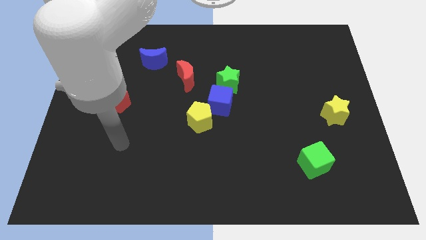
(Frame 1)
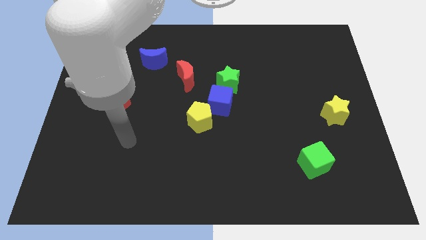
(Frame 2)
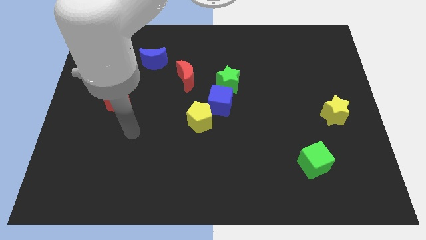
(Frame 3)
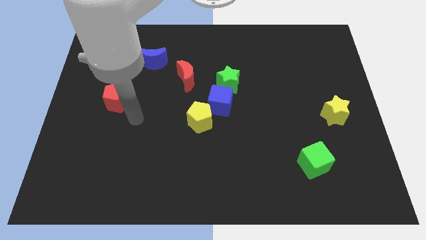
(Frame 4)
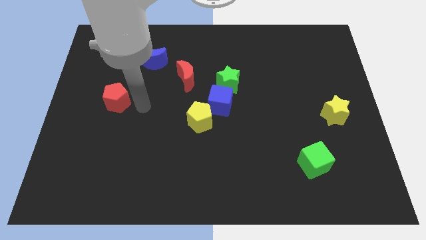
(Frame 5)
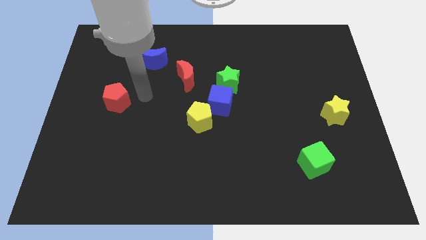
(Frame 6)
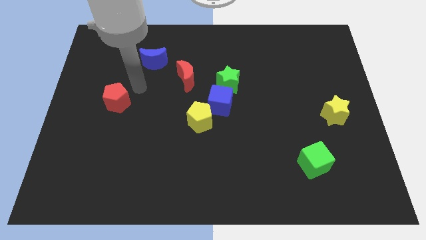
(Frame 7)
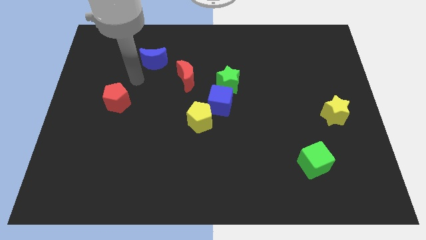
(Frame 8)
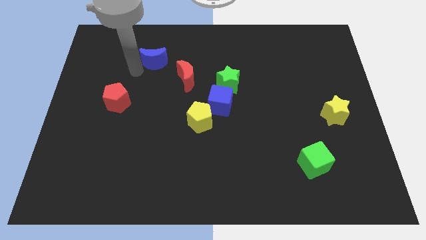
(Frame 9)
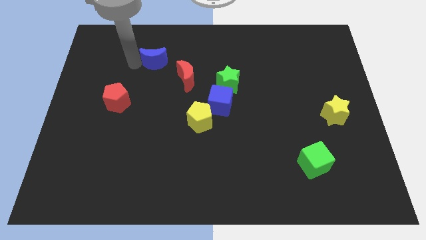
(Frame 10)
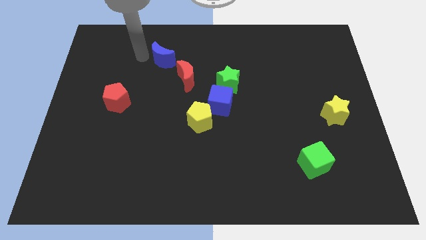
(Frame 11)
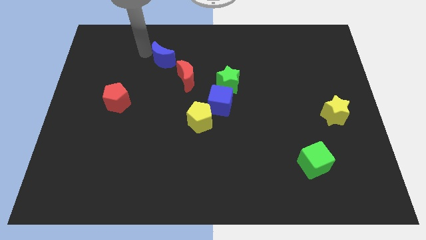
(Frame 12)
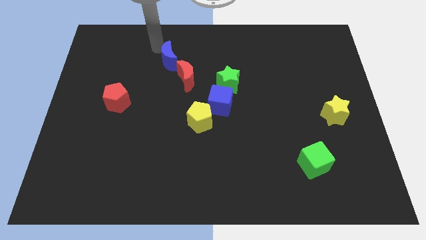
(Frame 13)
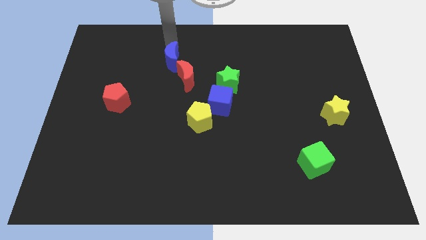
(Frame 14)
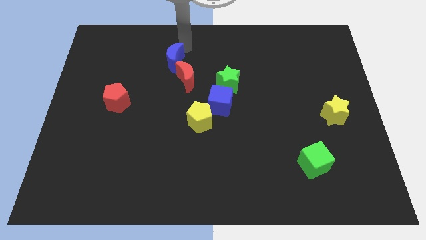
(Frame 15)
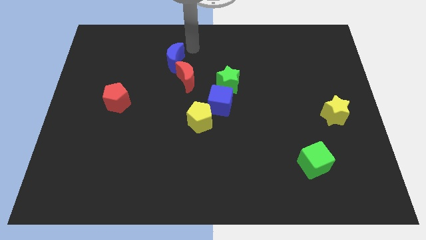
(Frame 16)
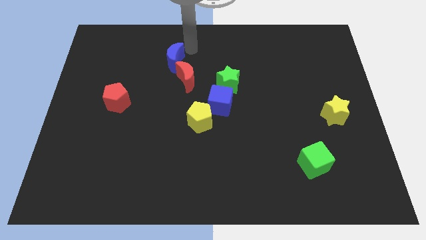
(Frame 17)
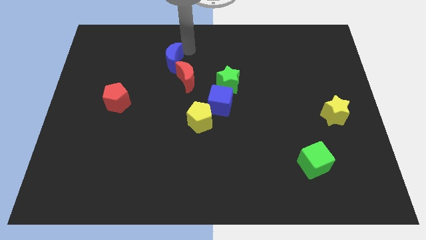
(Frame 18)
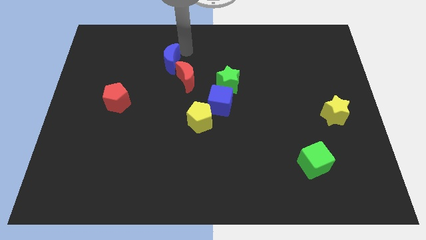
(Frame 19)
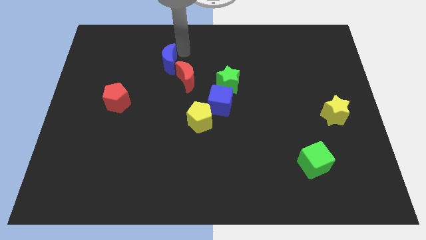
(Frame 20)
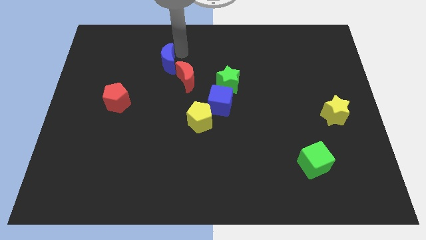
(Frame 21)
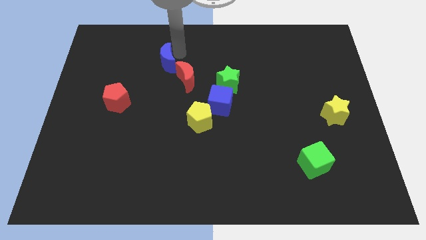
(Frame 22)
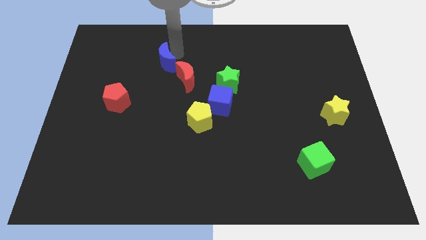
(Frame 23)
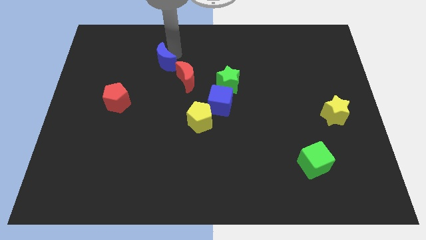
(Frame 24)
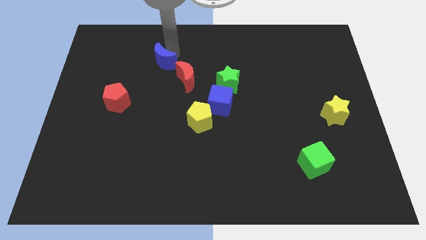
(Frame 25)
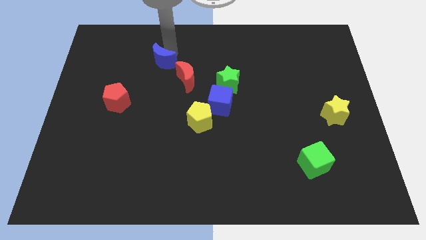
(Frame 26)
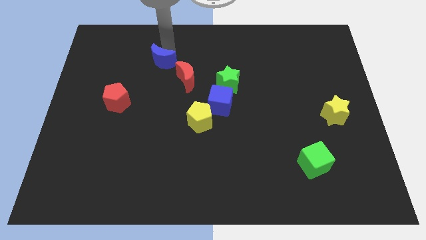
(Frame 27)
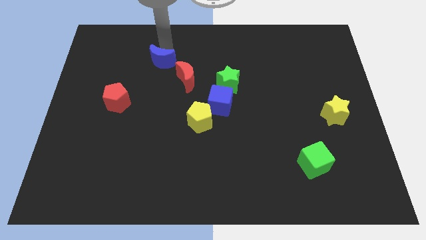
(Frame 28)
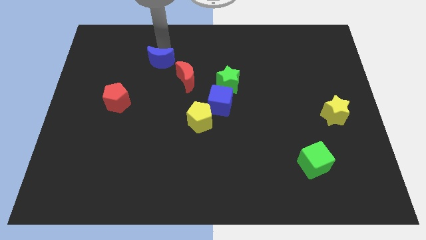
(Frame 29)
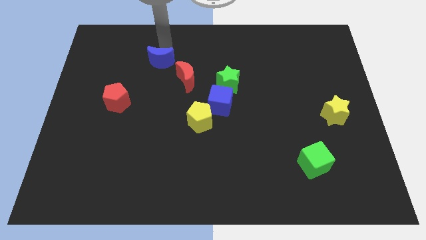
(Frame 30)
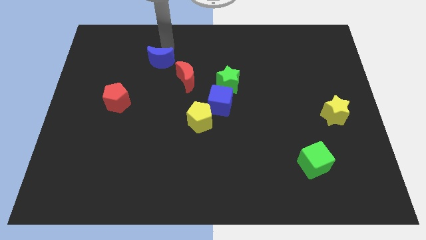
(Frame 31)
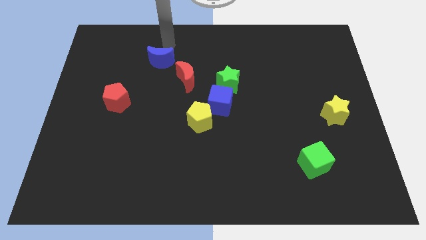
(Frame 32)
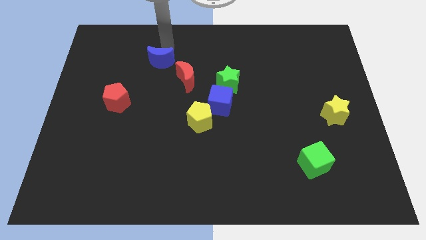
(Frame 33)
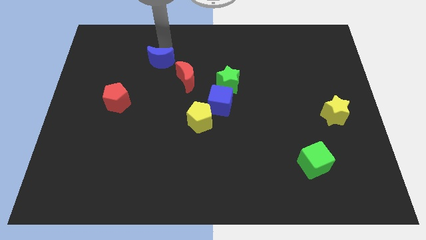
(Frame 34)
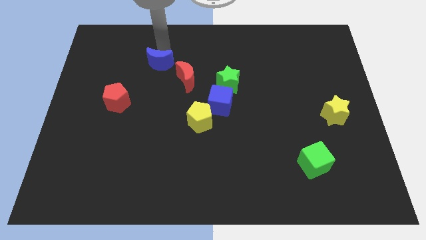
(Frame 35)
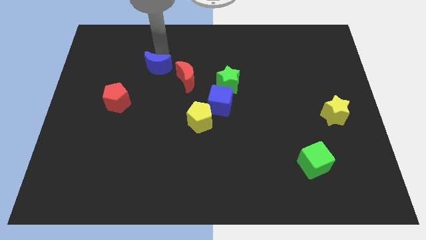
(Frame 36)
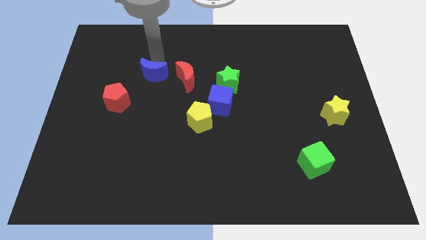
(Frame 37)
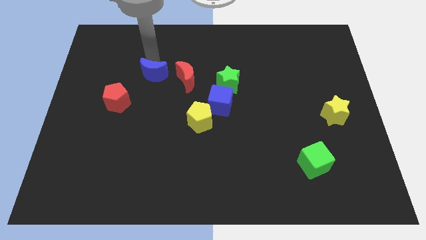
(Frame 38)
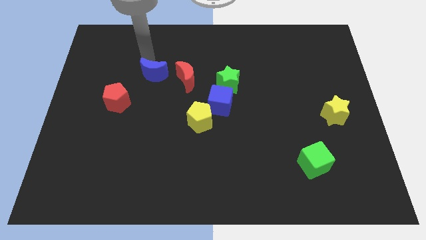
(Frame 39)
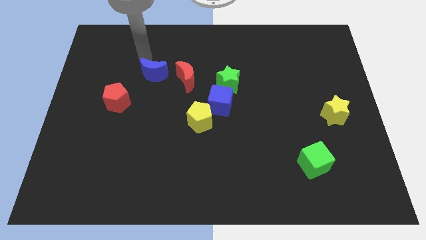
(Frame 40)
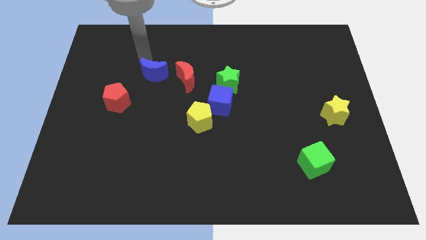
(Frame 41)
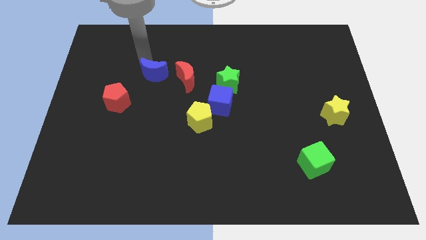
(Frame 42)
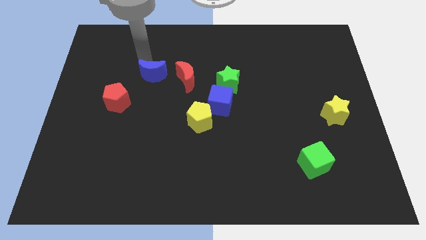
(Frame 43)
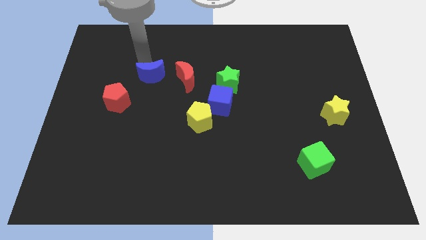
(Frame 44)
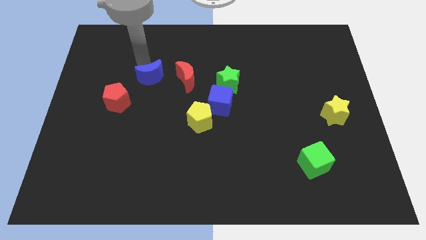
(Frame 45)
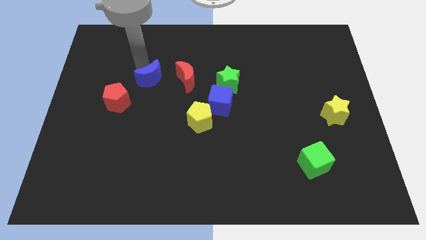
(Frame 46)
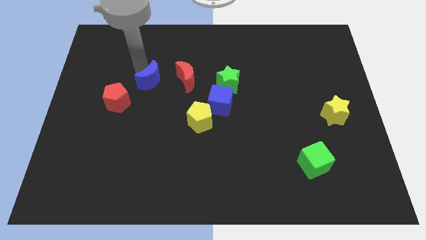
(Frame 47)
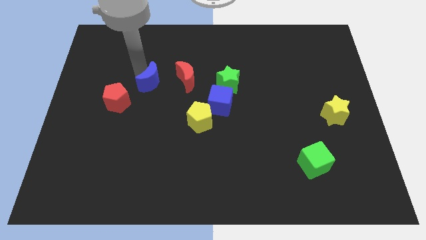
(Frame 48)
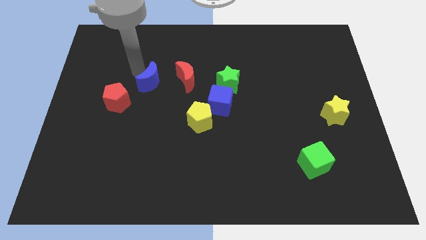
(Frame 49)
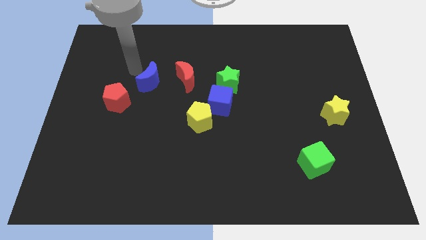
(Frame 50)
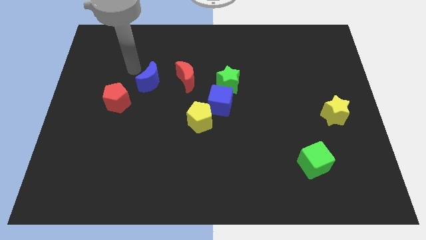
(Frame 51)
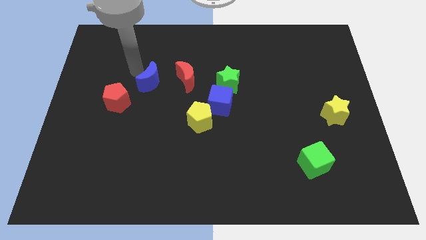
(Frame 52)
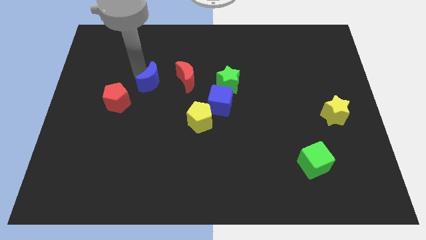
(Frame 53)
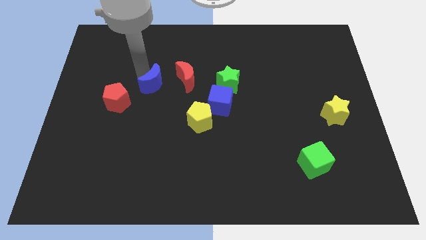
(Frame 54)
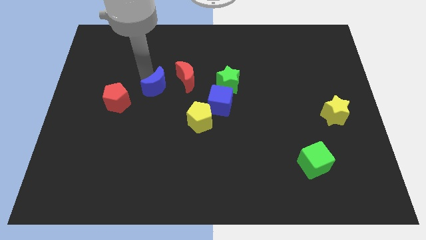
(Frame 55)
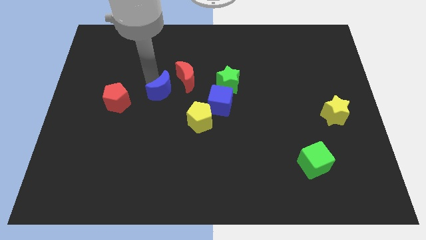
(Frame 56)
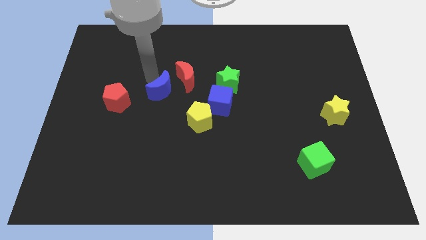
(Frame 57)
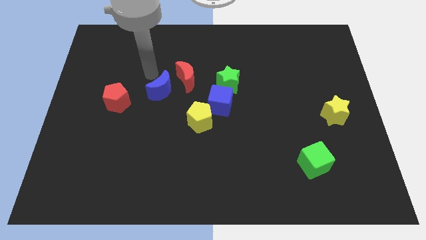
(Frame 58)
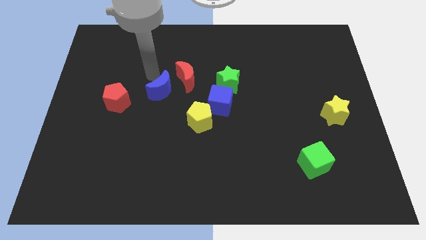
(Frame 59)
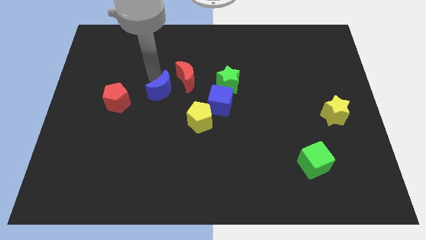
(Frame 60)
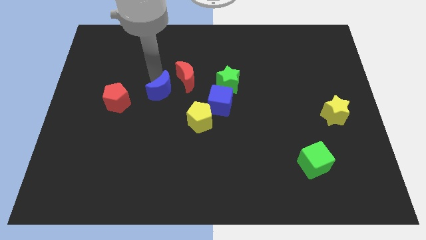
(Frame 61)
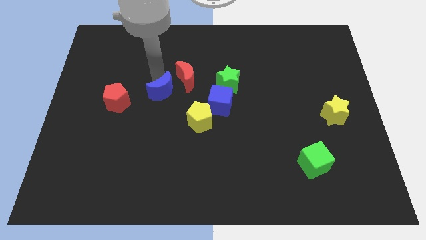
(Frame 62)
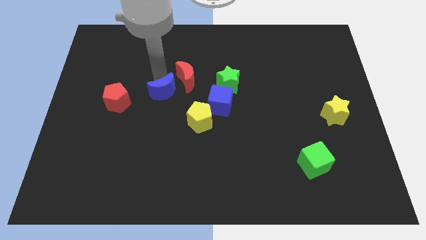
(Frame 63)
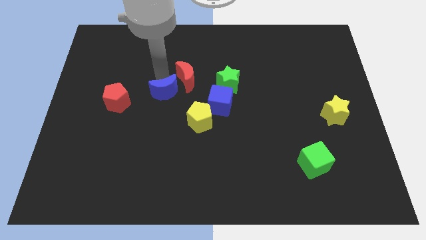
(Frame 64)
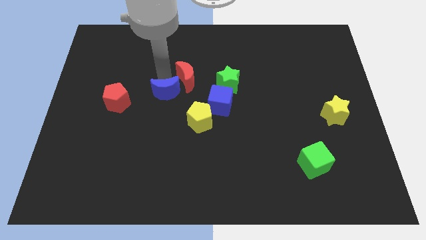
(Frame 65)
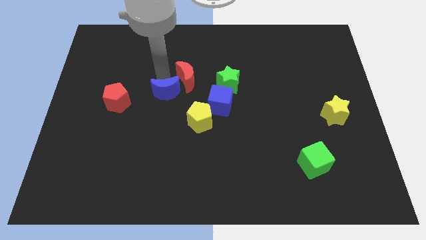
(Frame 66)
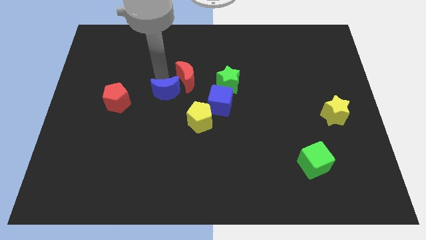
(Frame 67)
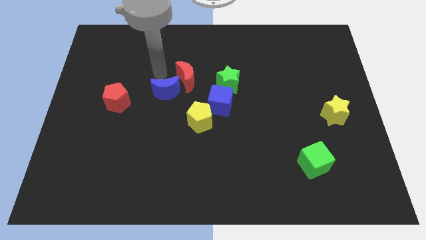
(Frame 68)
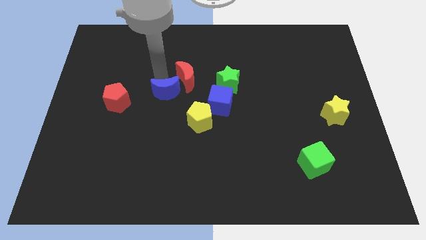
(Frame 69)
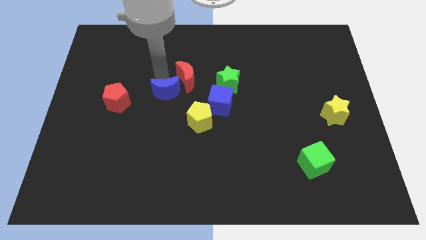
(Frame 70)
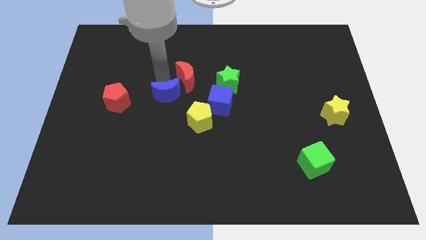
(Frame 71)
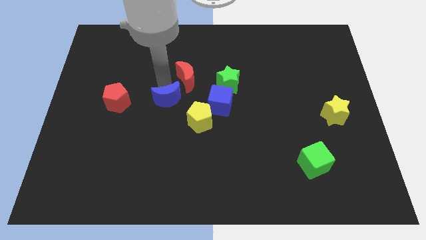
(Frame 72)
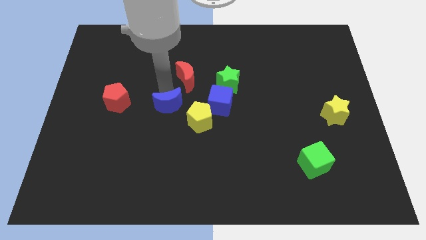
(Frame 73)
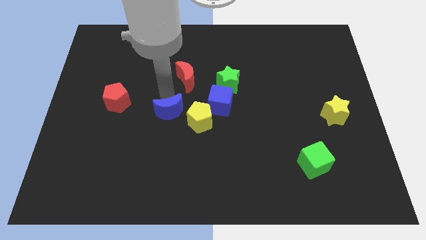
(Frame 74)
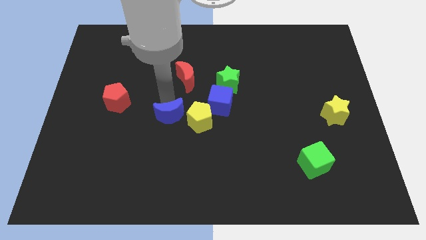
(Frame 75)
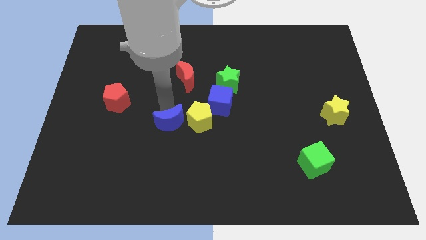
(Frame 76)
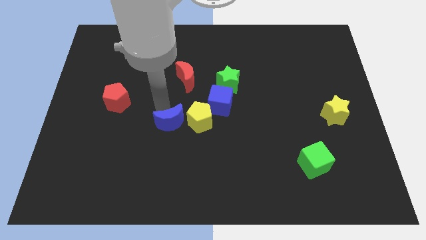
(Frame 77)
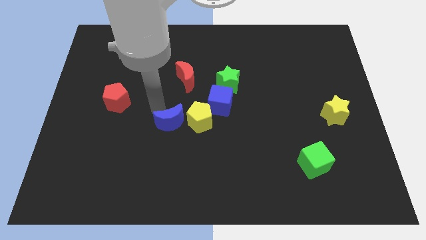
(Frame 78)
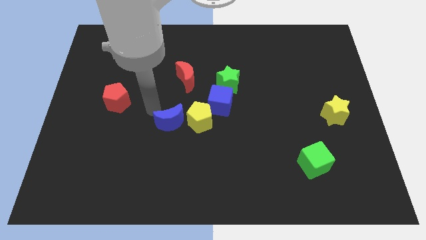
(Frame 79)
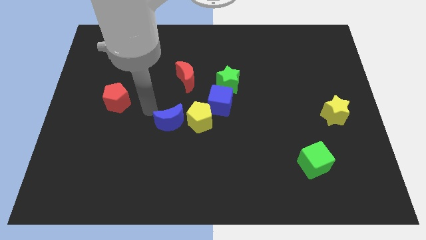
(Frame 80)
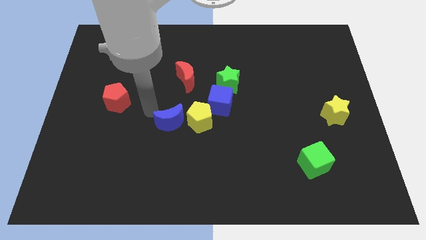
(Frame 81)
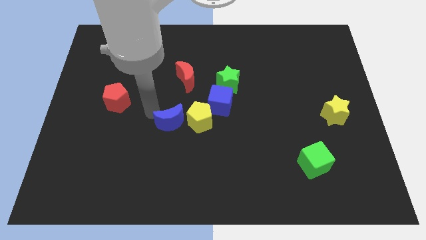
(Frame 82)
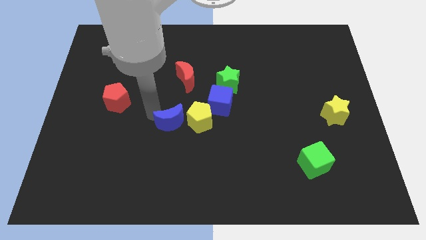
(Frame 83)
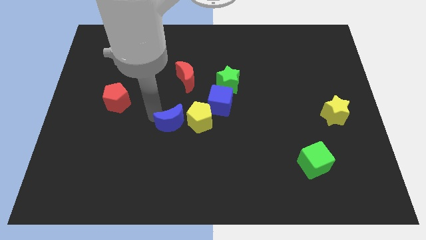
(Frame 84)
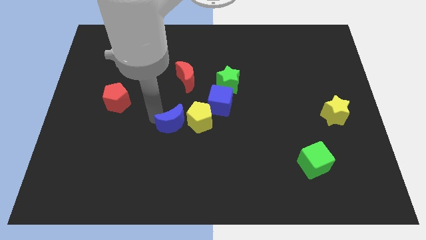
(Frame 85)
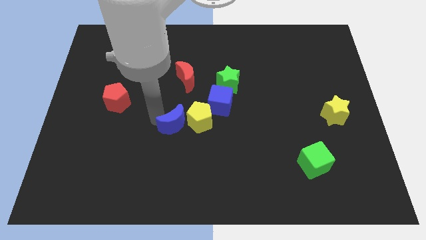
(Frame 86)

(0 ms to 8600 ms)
slide the blue moon to the bottom left side of the blue cube
